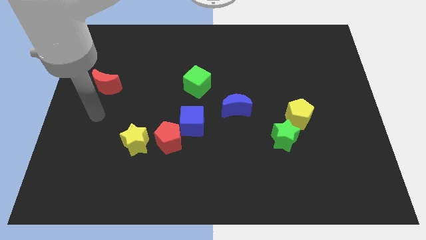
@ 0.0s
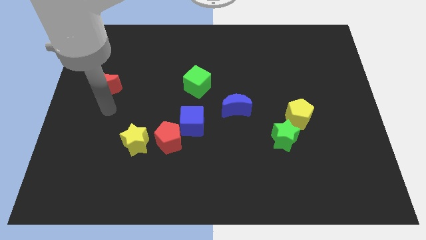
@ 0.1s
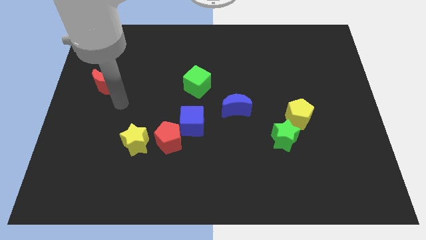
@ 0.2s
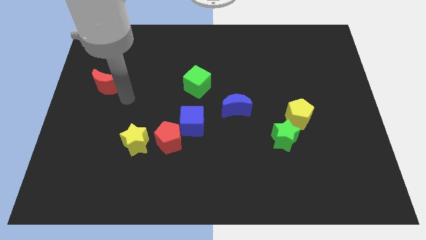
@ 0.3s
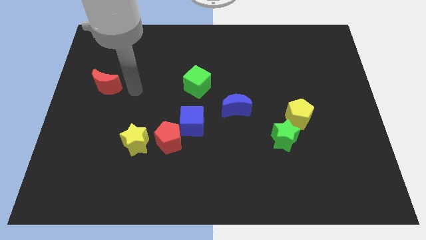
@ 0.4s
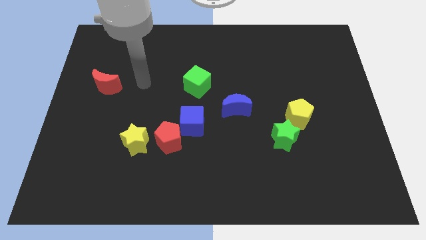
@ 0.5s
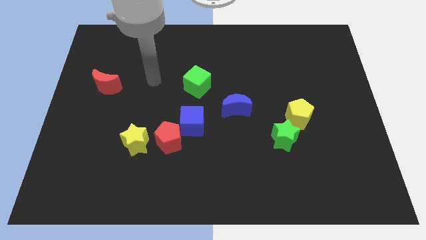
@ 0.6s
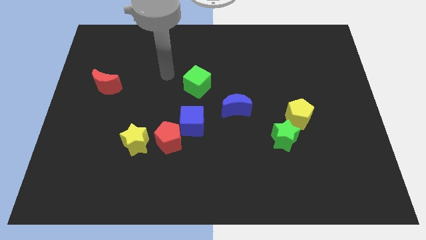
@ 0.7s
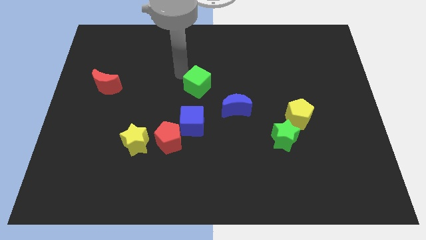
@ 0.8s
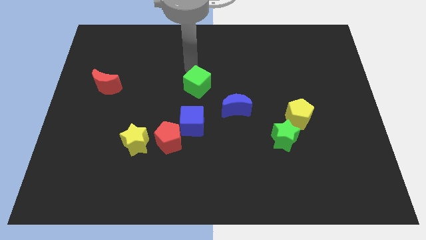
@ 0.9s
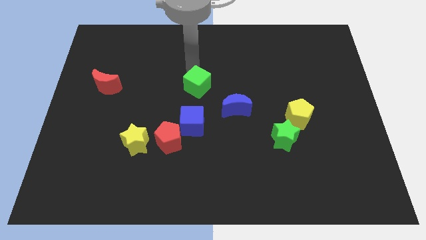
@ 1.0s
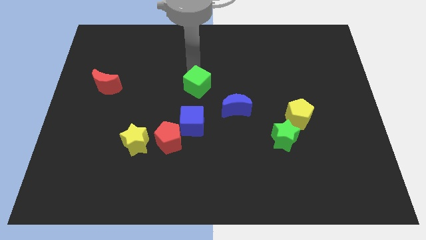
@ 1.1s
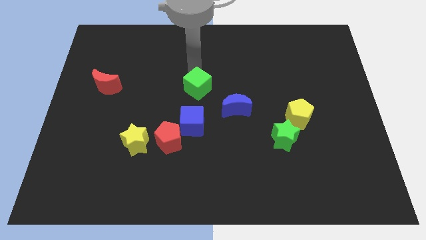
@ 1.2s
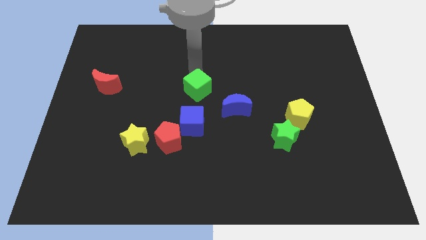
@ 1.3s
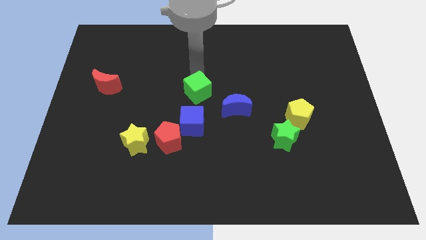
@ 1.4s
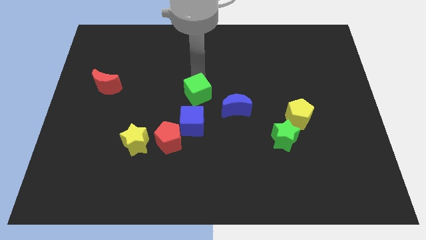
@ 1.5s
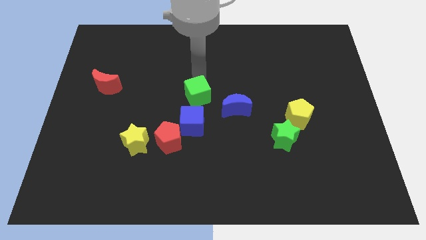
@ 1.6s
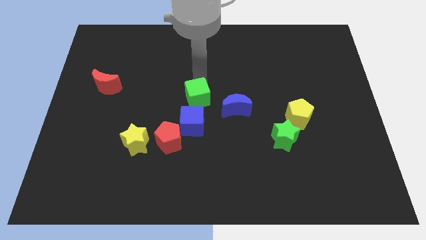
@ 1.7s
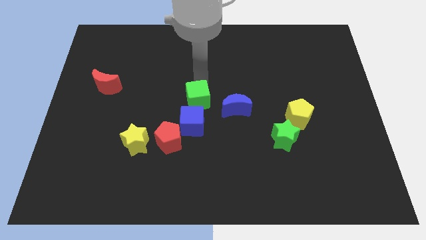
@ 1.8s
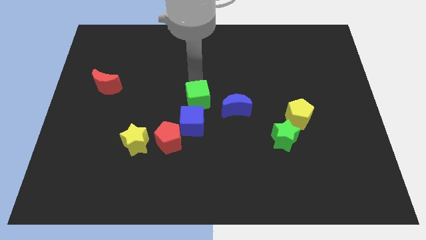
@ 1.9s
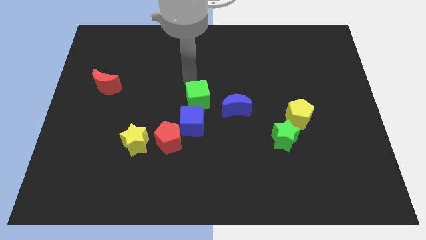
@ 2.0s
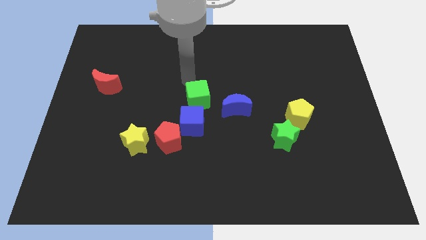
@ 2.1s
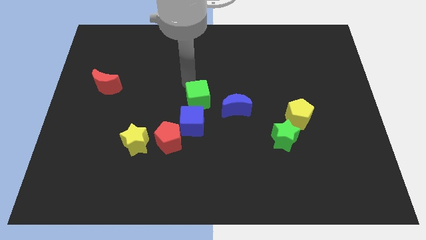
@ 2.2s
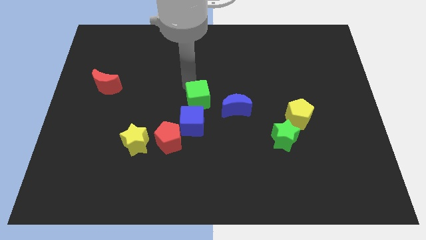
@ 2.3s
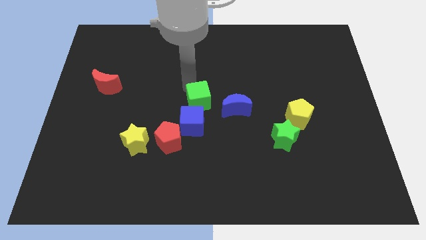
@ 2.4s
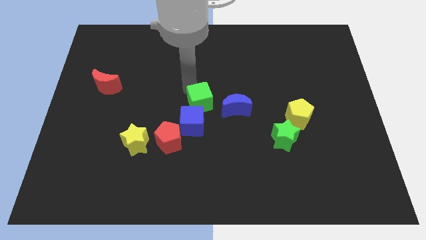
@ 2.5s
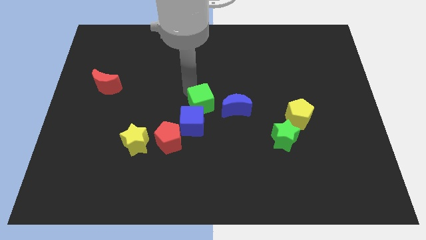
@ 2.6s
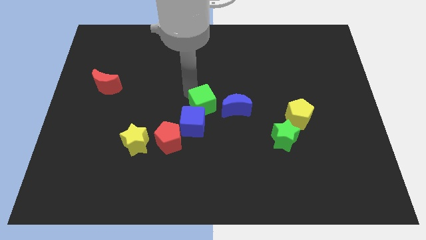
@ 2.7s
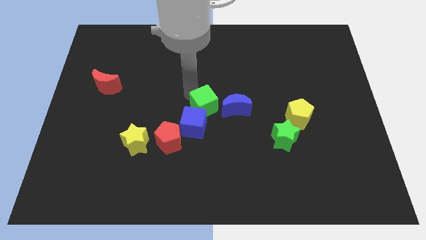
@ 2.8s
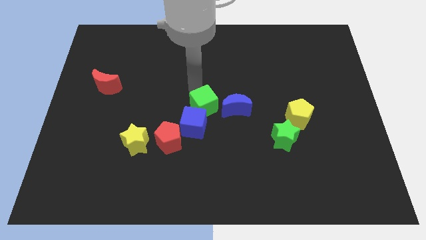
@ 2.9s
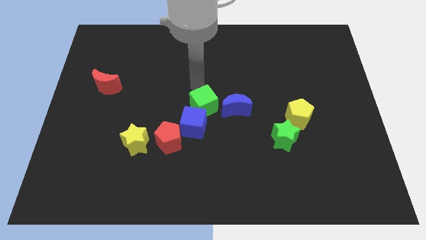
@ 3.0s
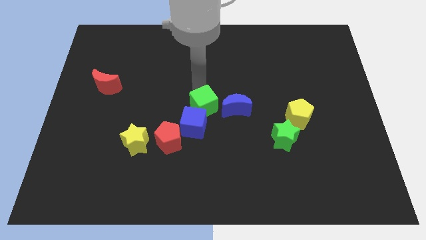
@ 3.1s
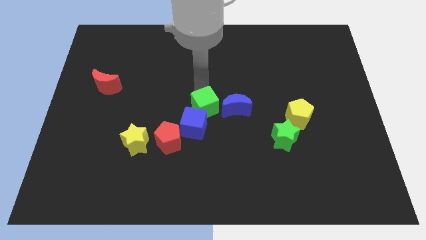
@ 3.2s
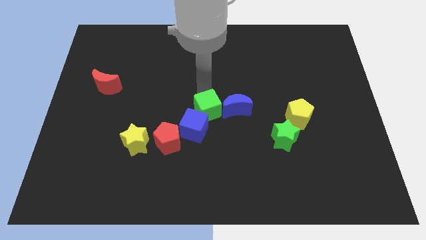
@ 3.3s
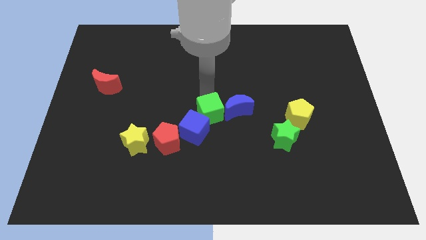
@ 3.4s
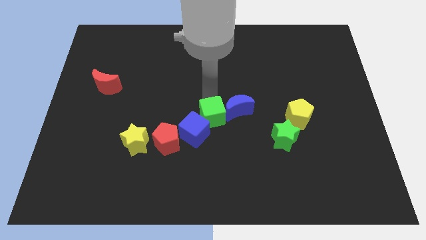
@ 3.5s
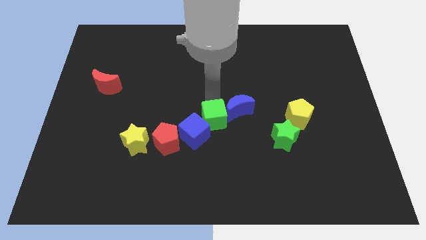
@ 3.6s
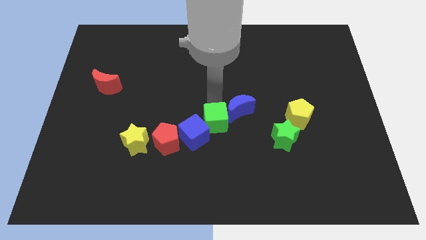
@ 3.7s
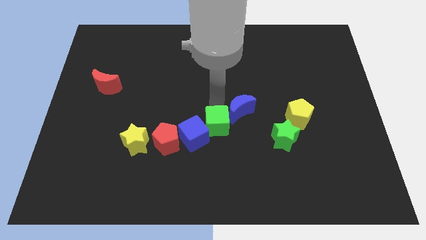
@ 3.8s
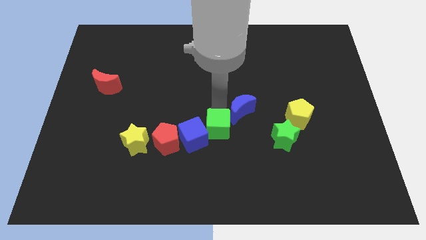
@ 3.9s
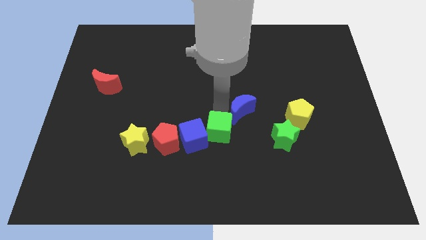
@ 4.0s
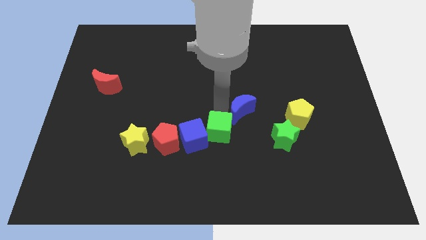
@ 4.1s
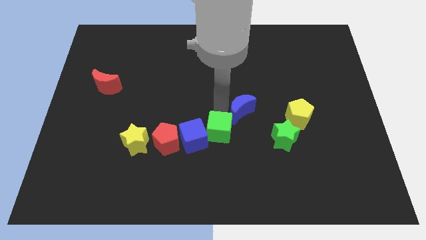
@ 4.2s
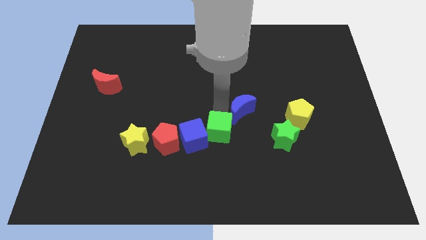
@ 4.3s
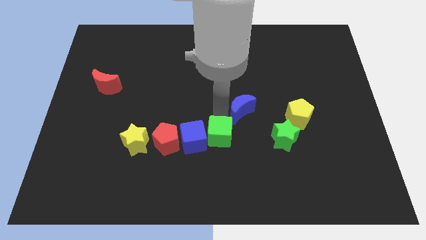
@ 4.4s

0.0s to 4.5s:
move the green cube diagonally down and to the right of the blue cube

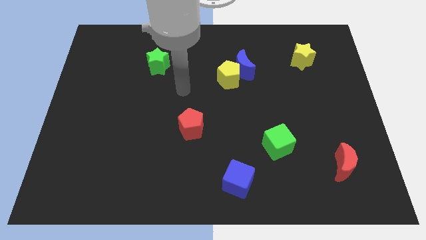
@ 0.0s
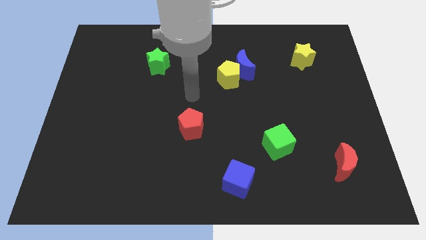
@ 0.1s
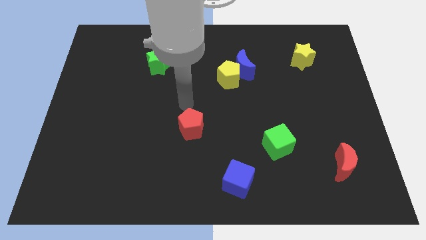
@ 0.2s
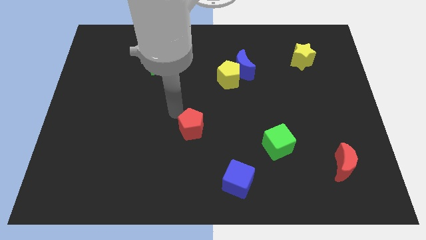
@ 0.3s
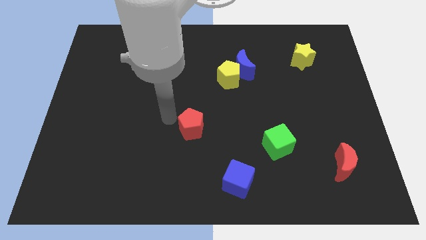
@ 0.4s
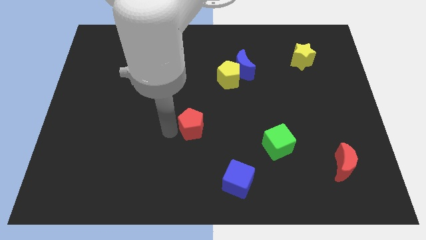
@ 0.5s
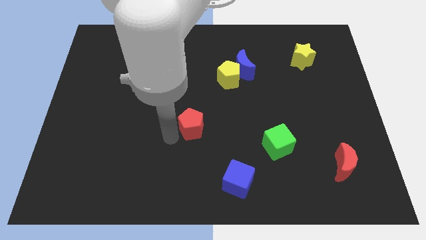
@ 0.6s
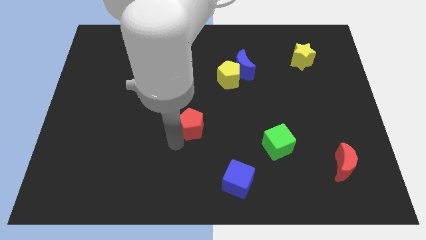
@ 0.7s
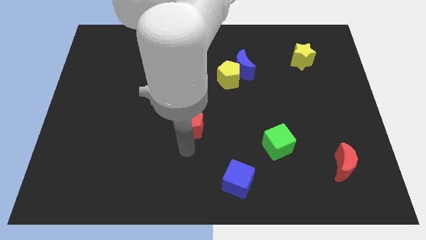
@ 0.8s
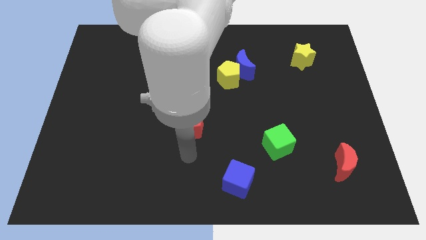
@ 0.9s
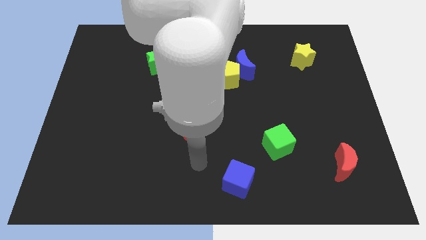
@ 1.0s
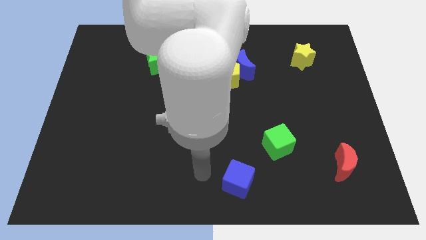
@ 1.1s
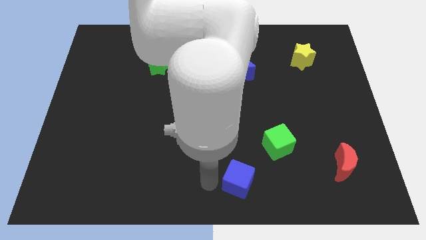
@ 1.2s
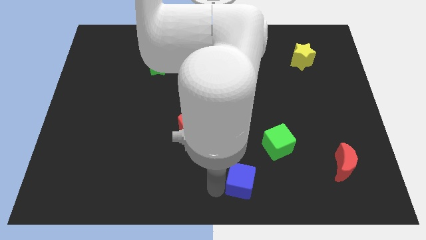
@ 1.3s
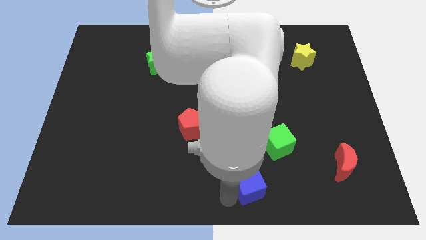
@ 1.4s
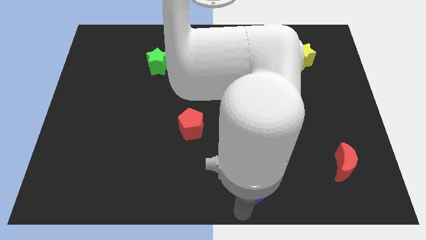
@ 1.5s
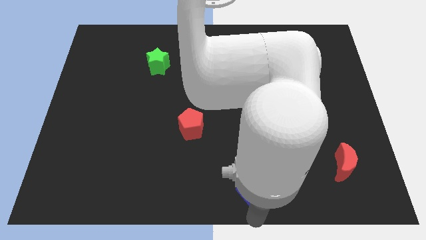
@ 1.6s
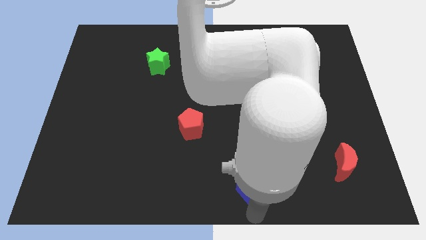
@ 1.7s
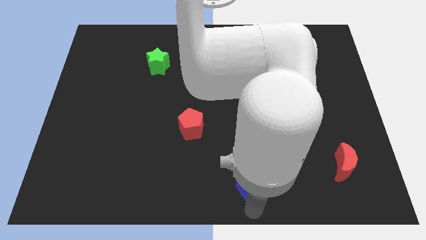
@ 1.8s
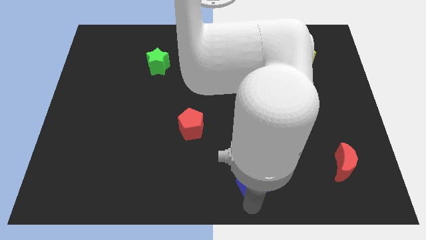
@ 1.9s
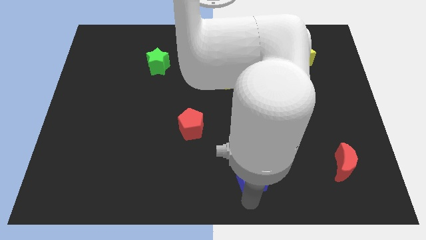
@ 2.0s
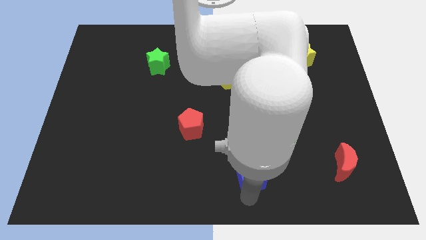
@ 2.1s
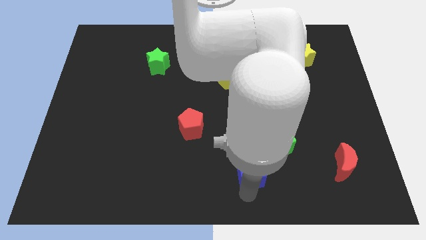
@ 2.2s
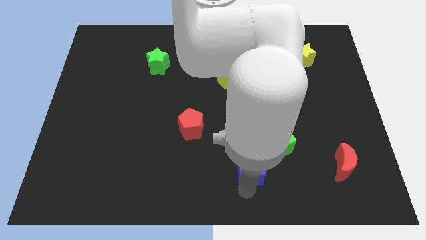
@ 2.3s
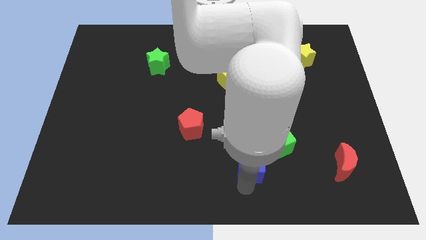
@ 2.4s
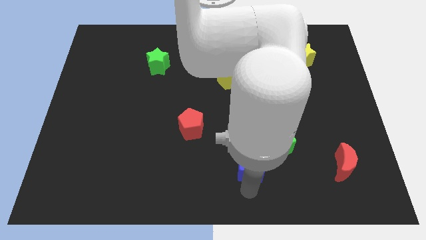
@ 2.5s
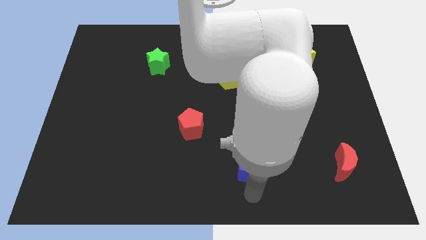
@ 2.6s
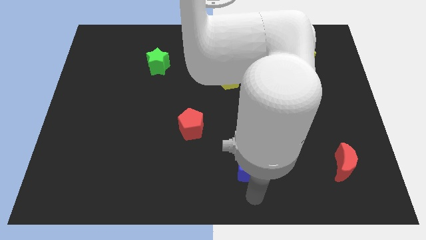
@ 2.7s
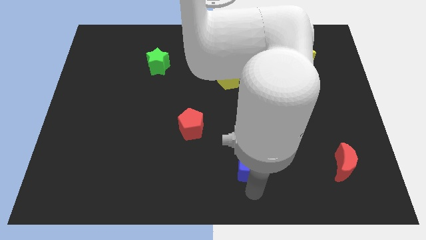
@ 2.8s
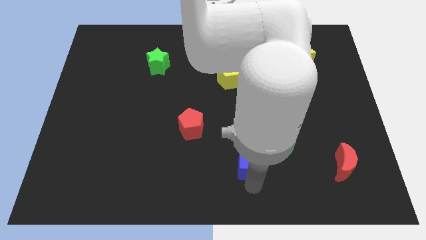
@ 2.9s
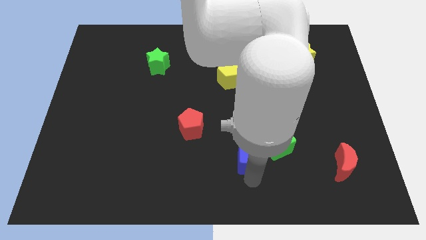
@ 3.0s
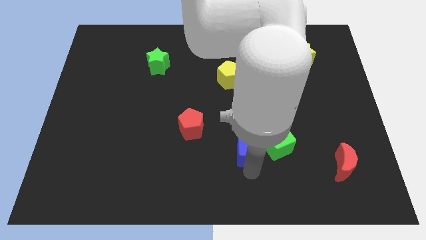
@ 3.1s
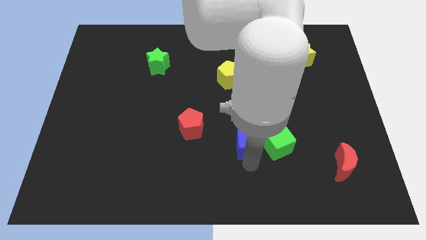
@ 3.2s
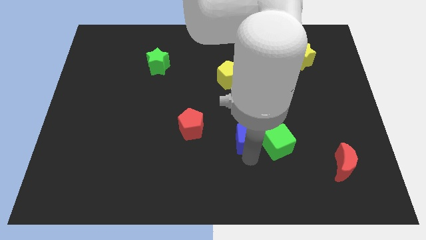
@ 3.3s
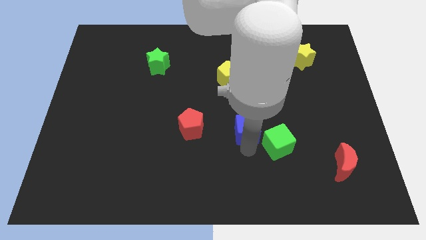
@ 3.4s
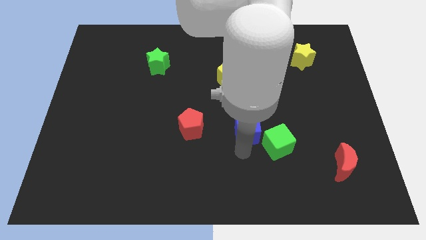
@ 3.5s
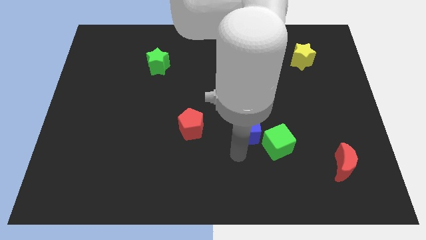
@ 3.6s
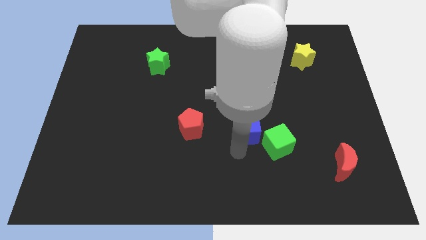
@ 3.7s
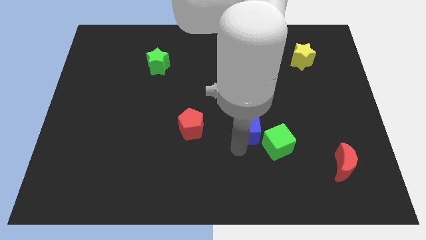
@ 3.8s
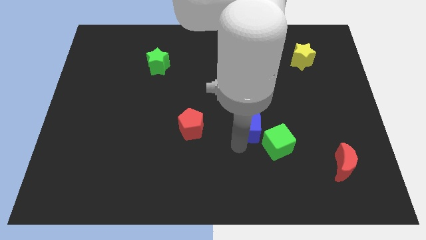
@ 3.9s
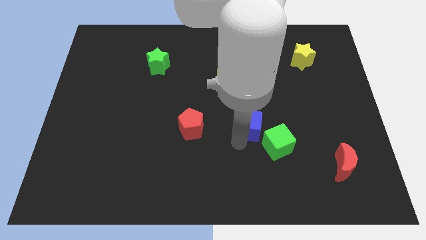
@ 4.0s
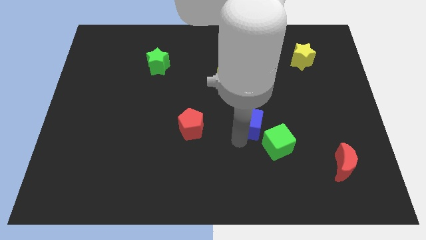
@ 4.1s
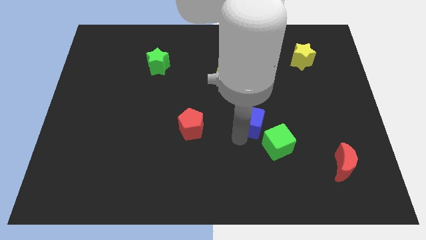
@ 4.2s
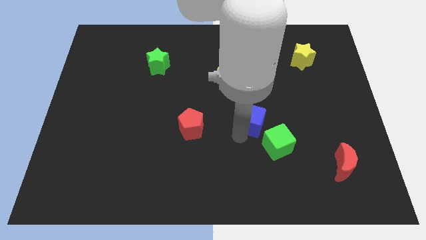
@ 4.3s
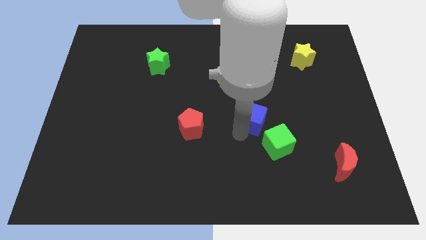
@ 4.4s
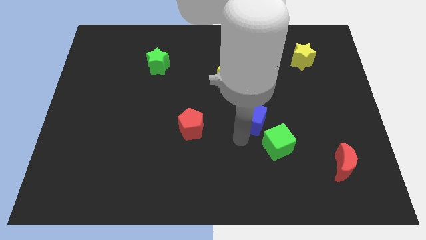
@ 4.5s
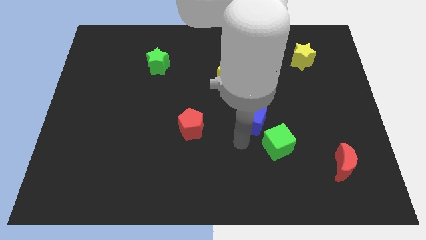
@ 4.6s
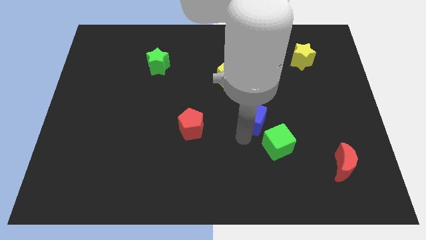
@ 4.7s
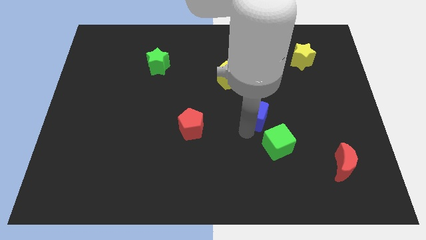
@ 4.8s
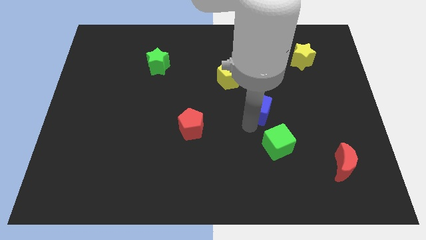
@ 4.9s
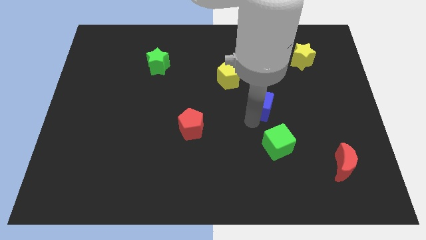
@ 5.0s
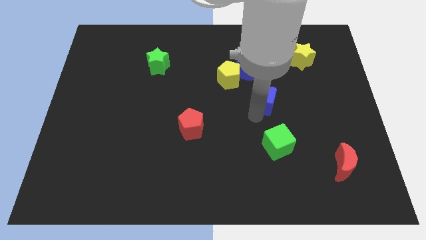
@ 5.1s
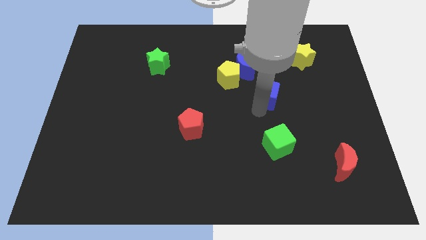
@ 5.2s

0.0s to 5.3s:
slide the blue cube to the bottom right side of the blue moon
